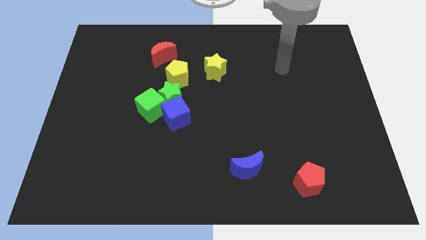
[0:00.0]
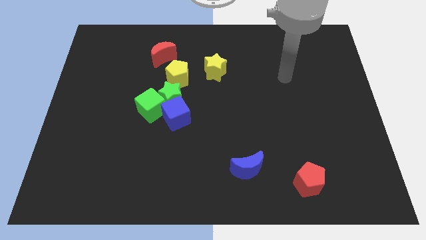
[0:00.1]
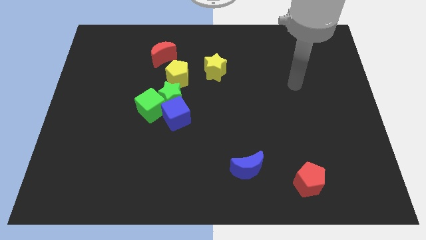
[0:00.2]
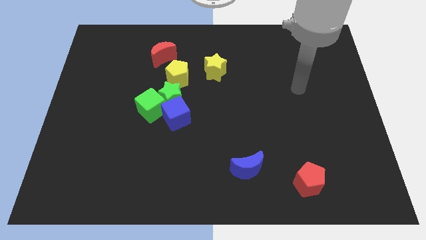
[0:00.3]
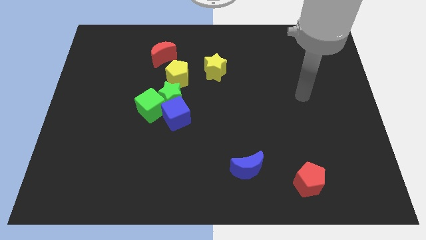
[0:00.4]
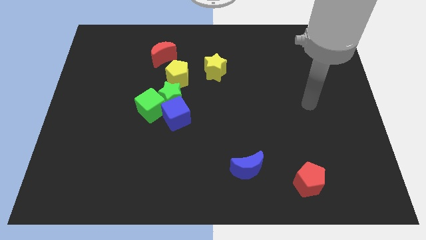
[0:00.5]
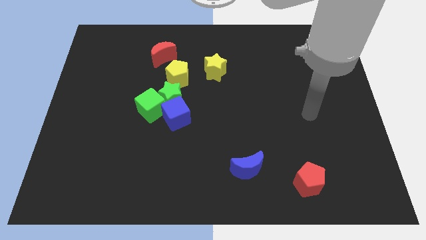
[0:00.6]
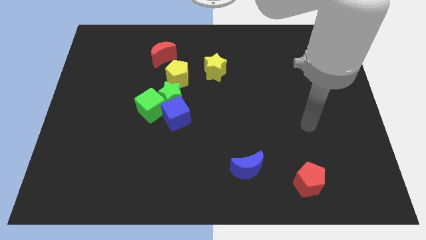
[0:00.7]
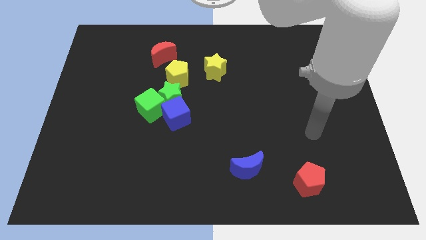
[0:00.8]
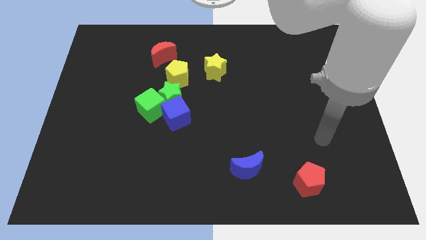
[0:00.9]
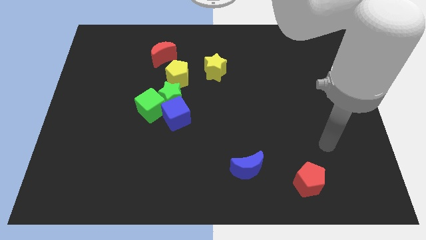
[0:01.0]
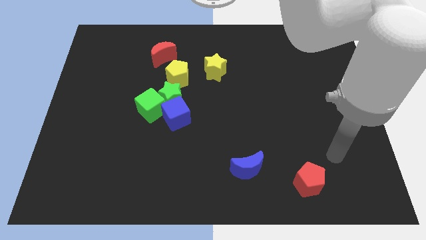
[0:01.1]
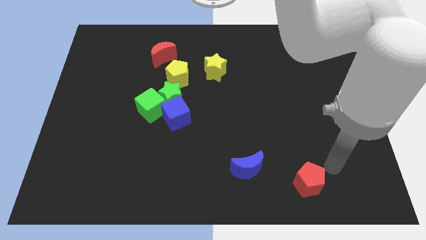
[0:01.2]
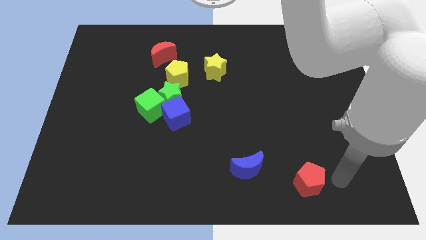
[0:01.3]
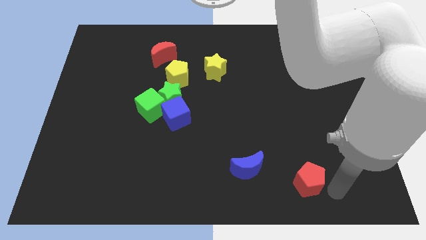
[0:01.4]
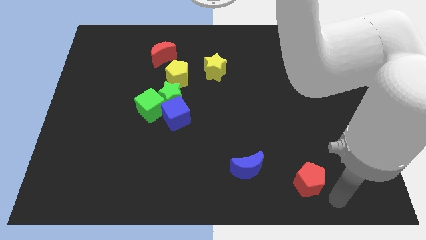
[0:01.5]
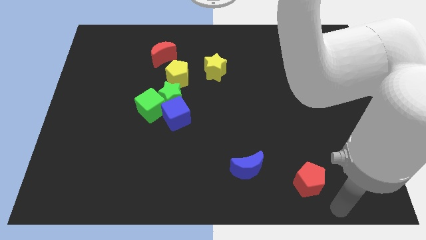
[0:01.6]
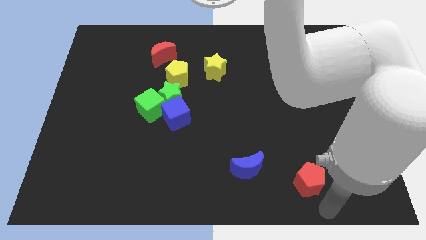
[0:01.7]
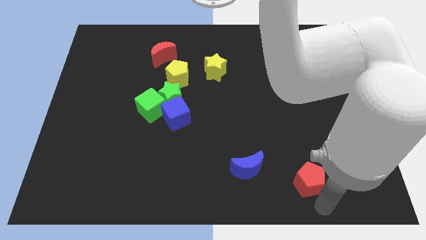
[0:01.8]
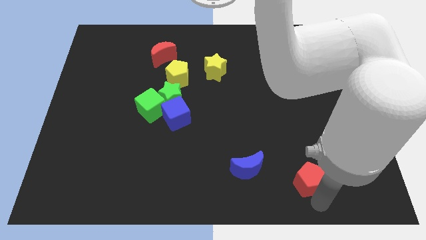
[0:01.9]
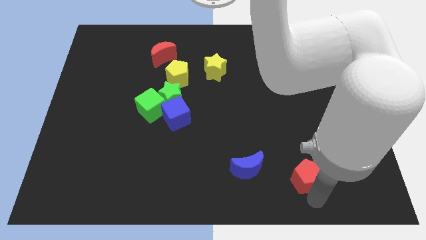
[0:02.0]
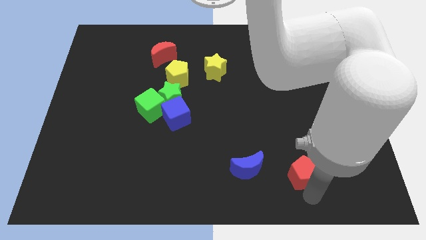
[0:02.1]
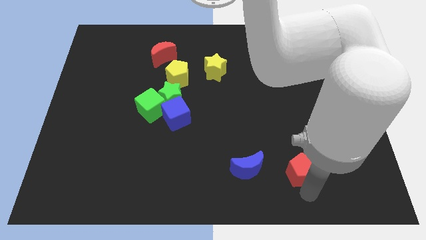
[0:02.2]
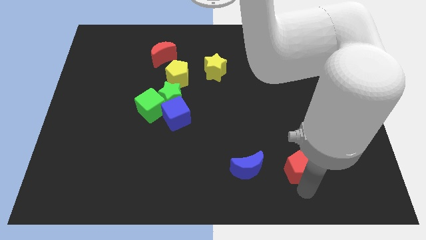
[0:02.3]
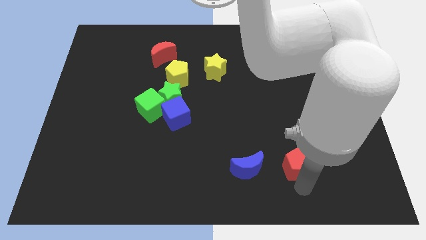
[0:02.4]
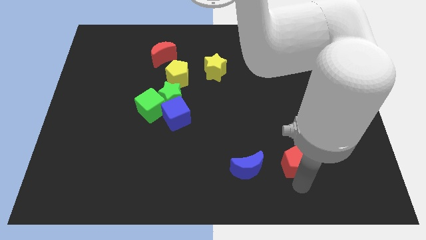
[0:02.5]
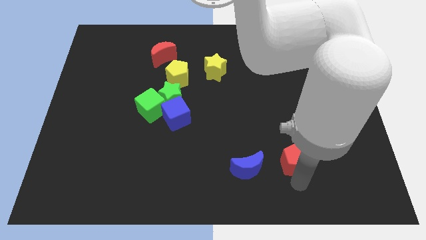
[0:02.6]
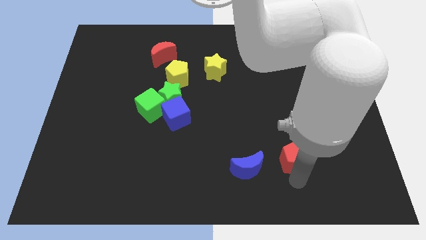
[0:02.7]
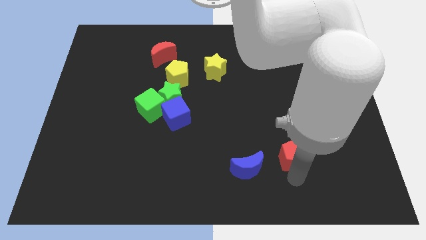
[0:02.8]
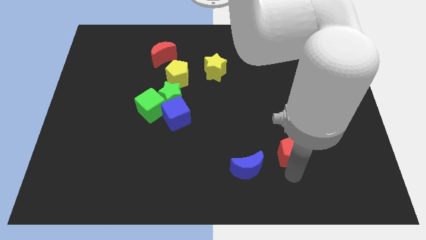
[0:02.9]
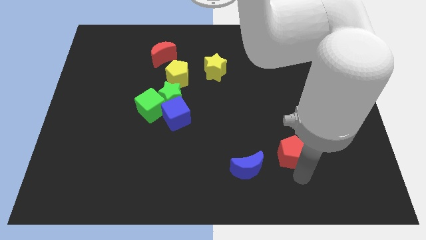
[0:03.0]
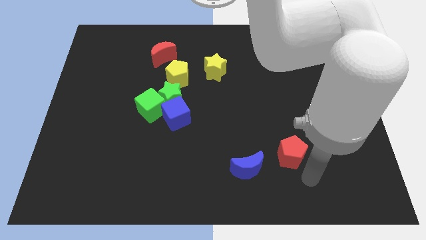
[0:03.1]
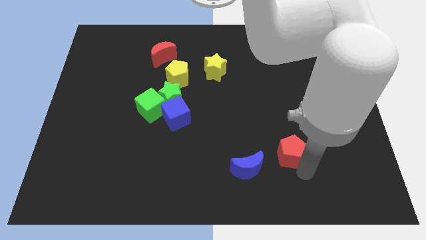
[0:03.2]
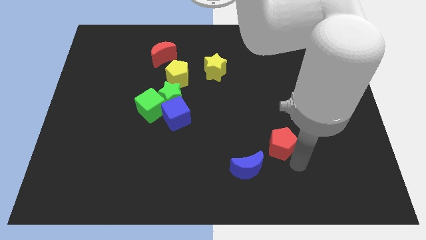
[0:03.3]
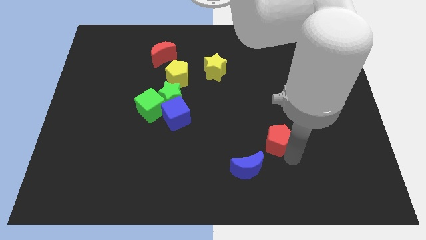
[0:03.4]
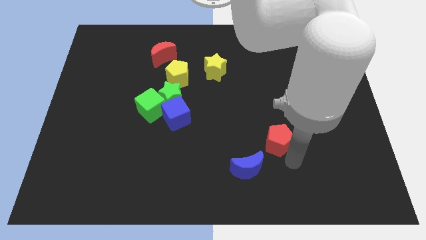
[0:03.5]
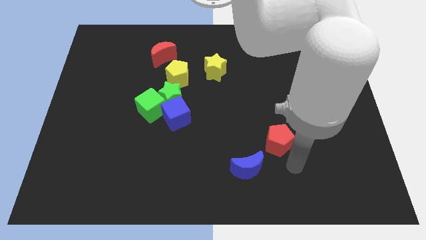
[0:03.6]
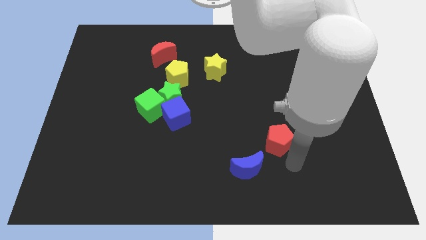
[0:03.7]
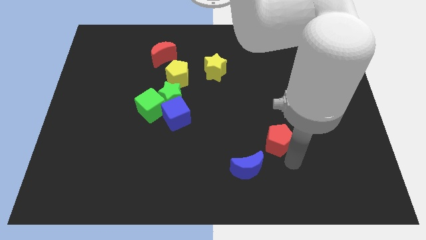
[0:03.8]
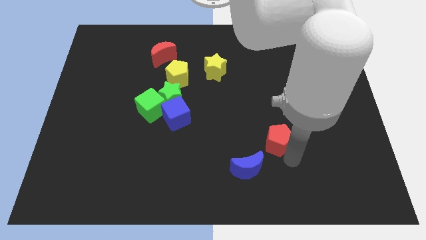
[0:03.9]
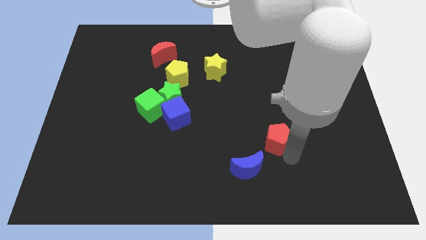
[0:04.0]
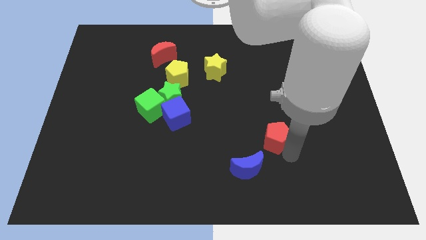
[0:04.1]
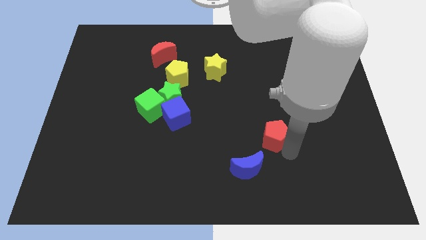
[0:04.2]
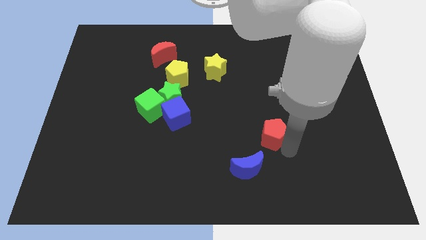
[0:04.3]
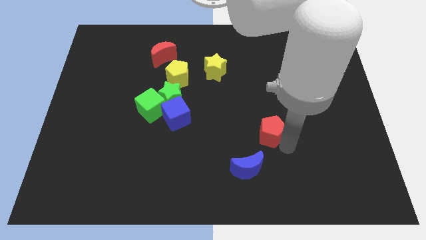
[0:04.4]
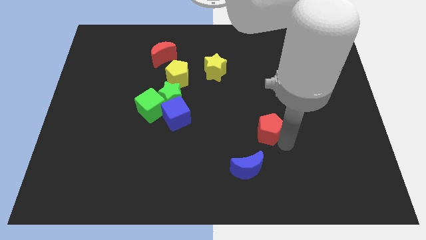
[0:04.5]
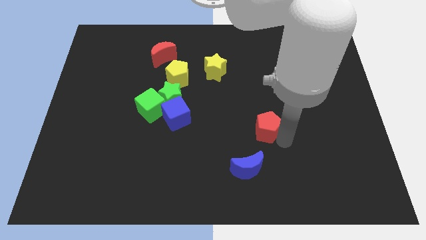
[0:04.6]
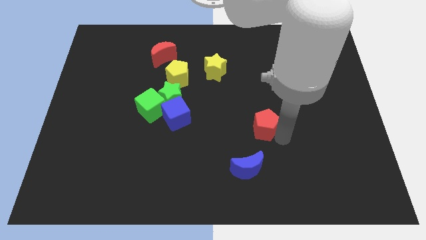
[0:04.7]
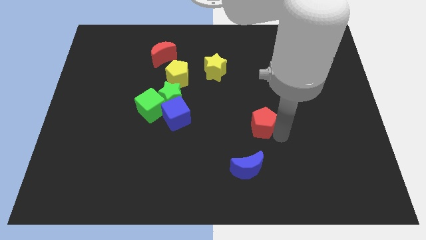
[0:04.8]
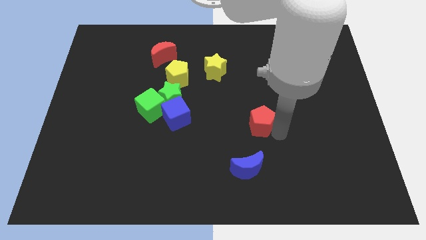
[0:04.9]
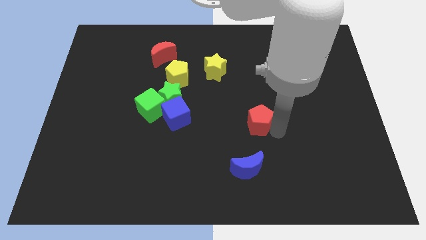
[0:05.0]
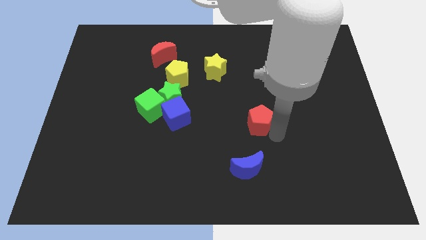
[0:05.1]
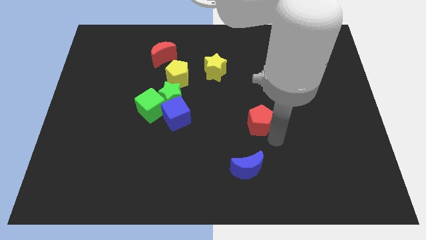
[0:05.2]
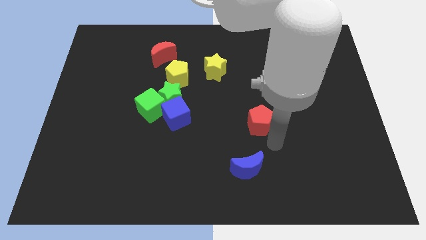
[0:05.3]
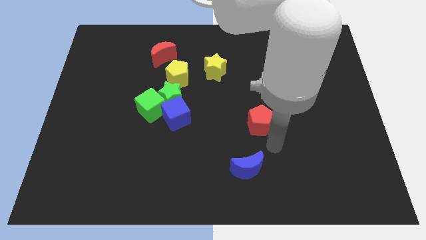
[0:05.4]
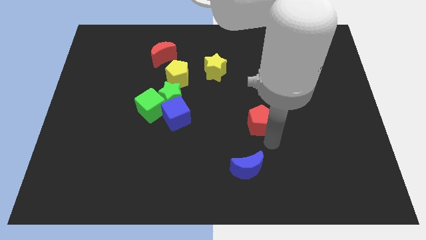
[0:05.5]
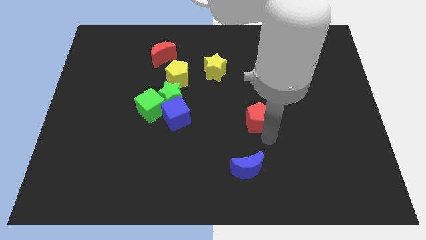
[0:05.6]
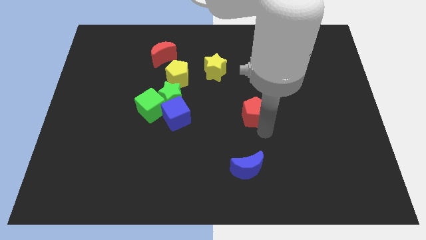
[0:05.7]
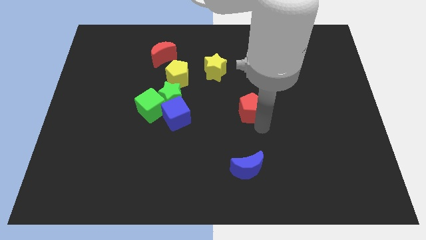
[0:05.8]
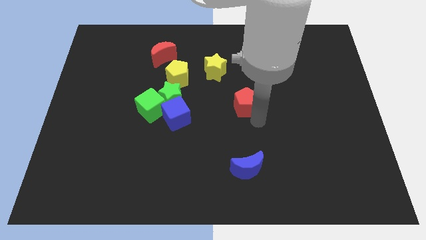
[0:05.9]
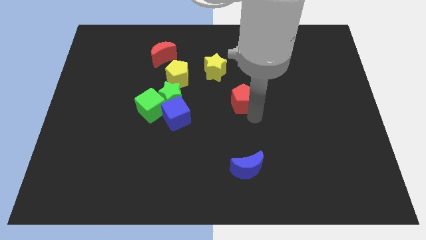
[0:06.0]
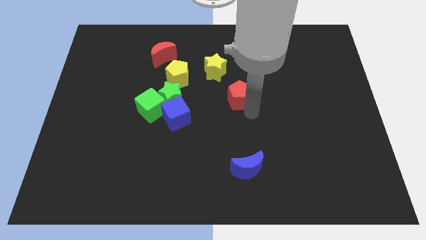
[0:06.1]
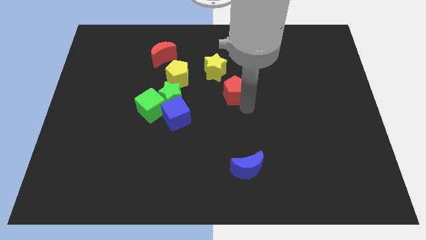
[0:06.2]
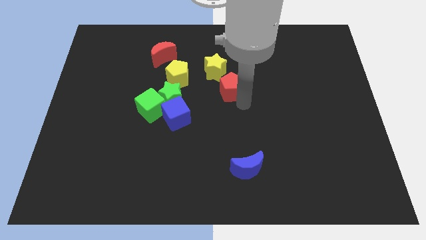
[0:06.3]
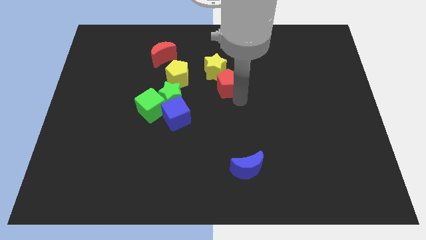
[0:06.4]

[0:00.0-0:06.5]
move the red pentagon to the yellow star

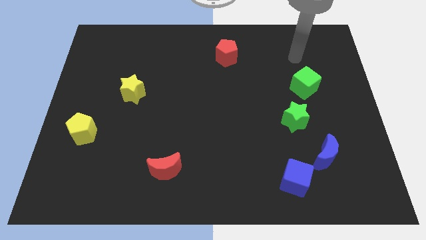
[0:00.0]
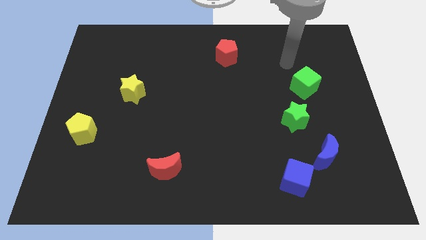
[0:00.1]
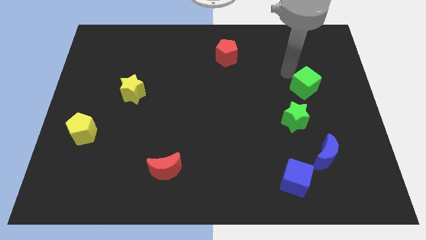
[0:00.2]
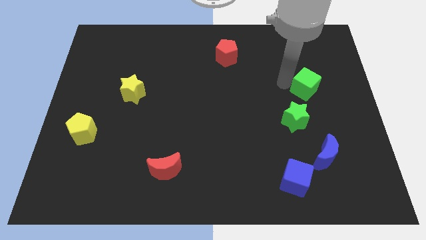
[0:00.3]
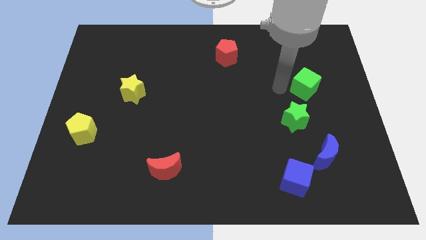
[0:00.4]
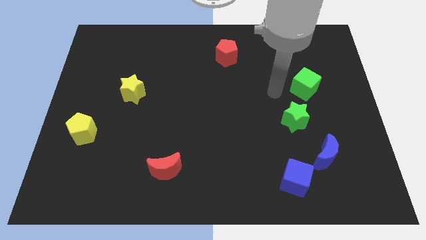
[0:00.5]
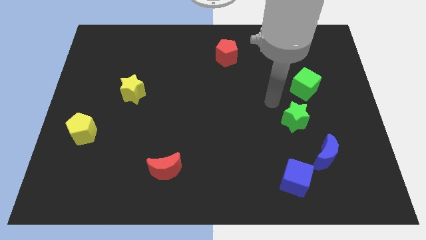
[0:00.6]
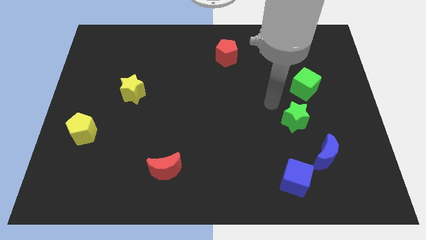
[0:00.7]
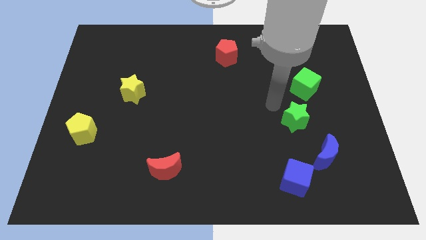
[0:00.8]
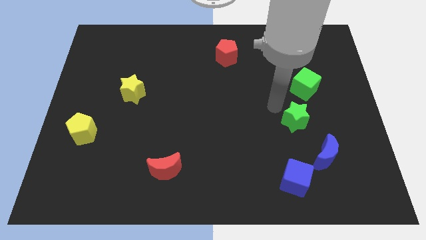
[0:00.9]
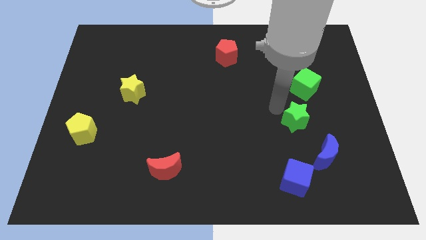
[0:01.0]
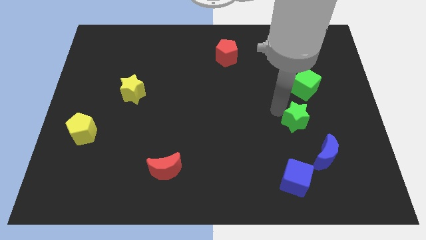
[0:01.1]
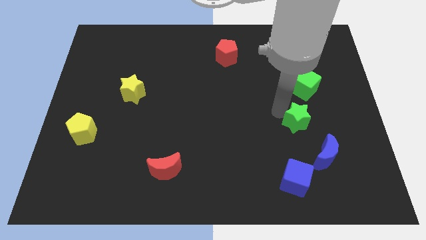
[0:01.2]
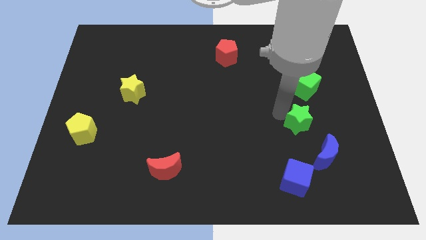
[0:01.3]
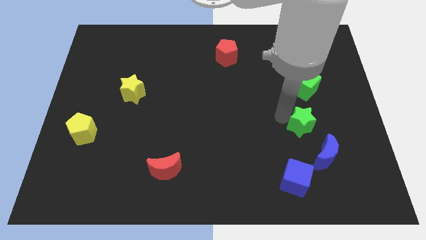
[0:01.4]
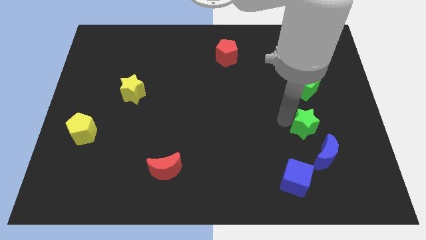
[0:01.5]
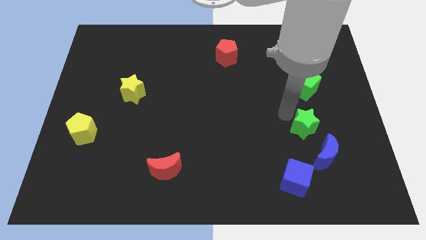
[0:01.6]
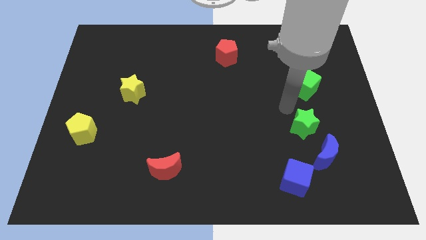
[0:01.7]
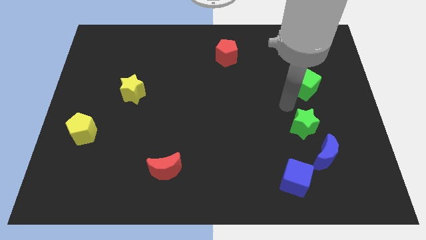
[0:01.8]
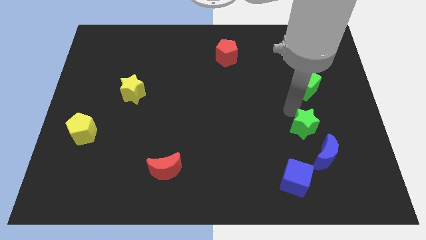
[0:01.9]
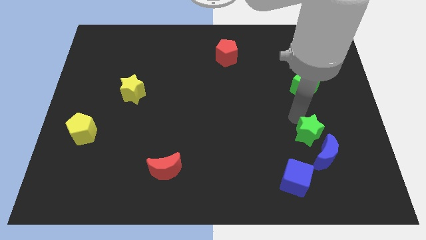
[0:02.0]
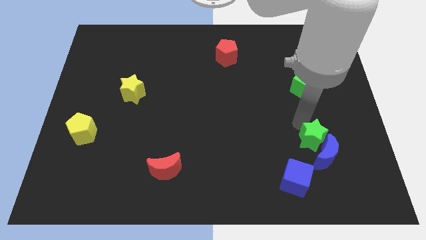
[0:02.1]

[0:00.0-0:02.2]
move the green star next to the blue moon
